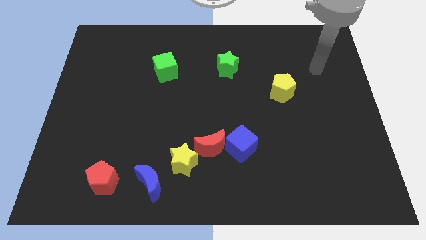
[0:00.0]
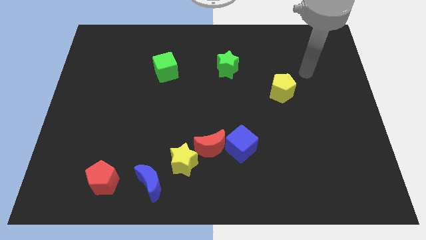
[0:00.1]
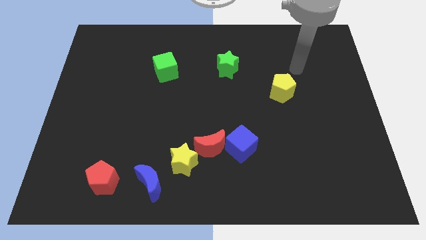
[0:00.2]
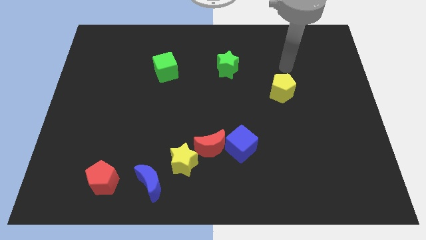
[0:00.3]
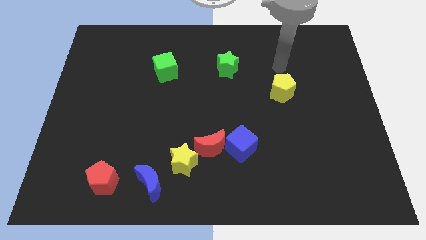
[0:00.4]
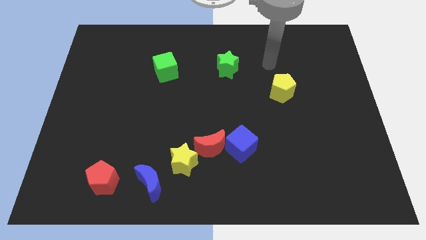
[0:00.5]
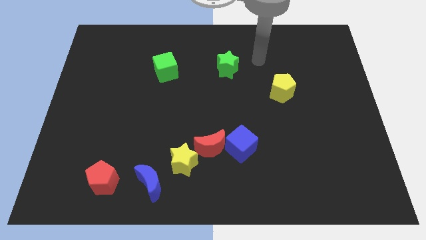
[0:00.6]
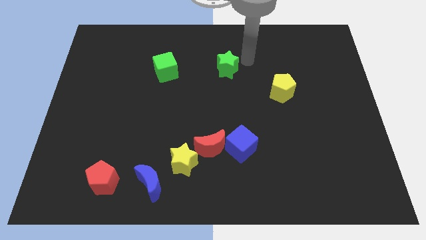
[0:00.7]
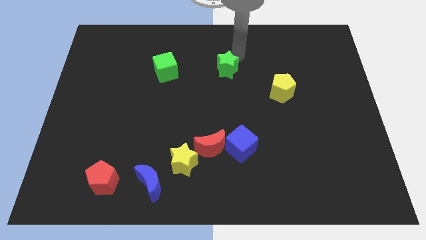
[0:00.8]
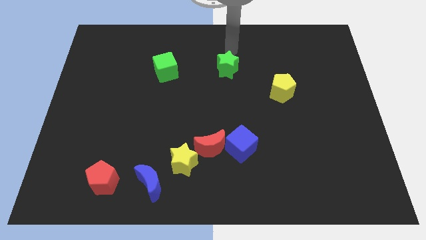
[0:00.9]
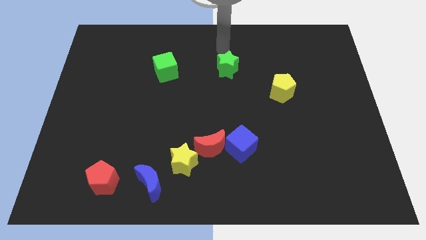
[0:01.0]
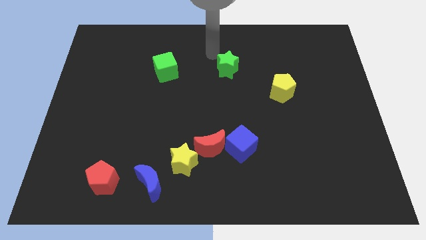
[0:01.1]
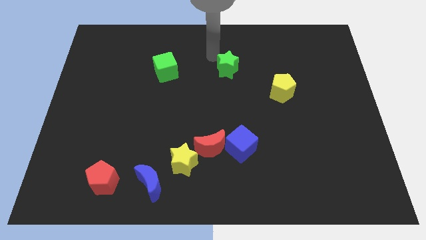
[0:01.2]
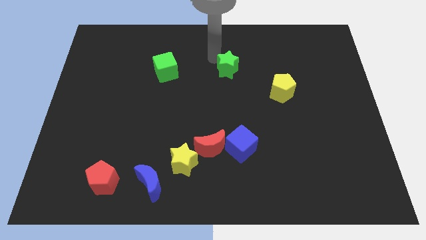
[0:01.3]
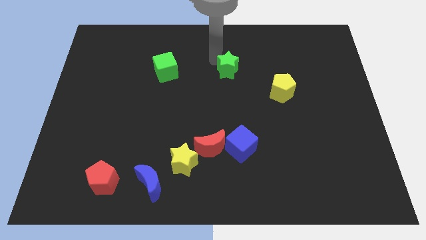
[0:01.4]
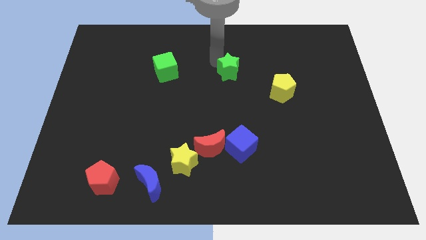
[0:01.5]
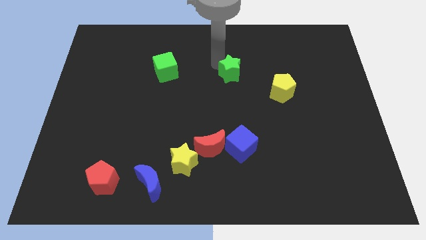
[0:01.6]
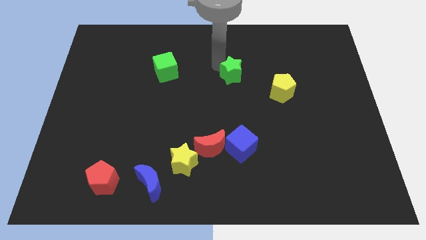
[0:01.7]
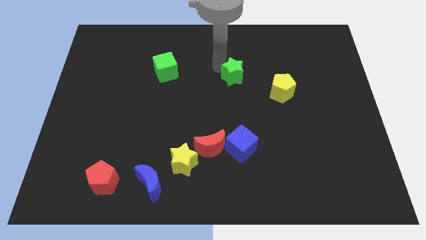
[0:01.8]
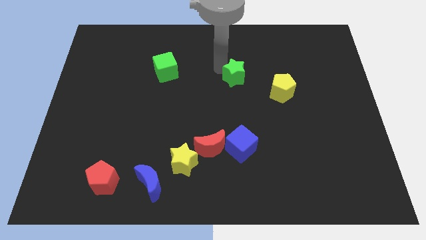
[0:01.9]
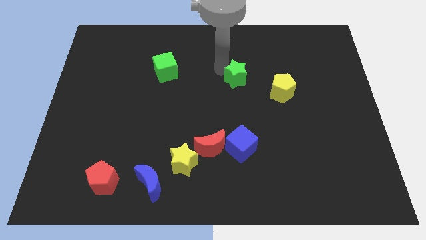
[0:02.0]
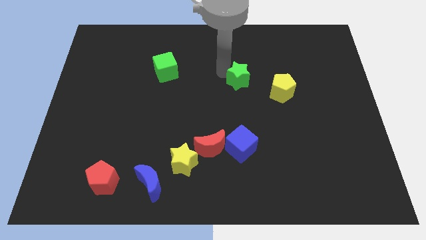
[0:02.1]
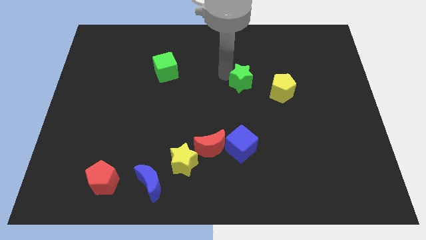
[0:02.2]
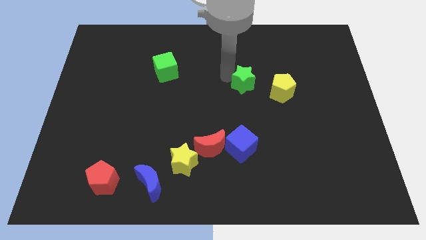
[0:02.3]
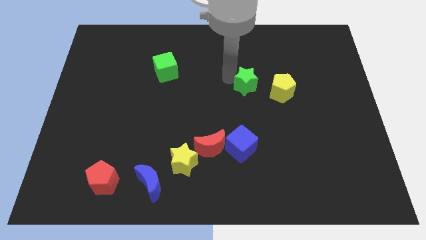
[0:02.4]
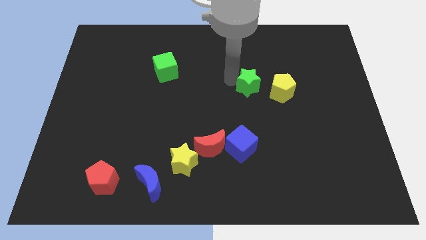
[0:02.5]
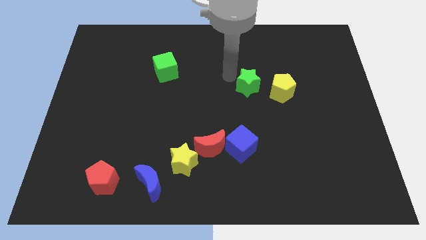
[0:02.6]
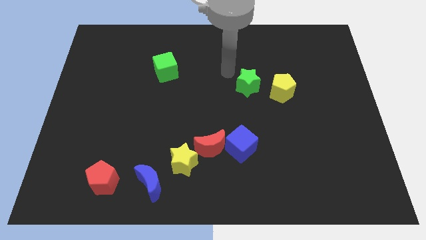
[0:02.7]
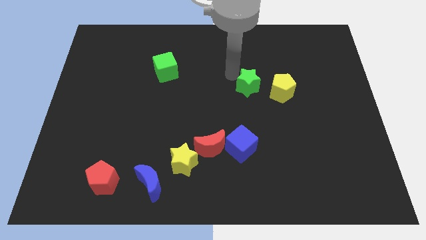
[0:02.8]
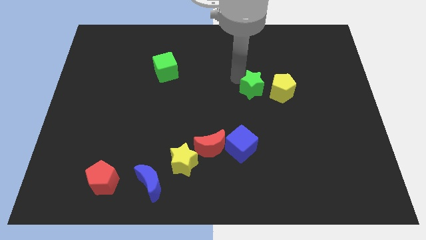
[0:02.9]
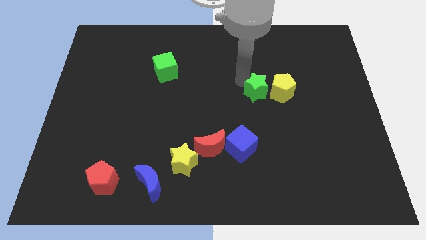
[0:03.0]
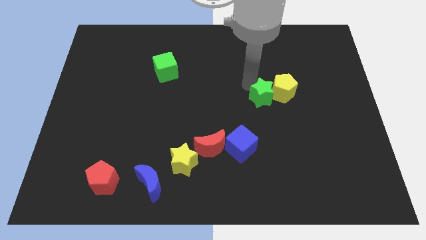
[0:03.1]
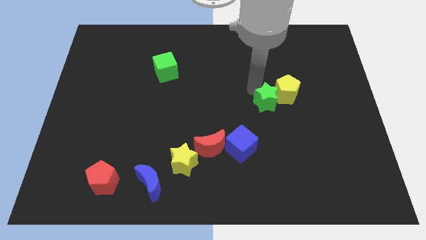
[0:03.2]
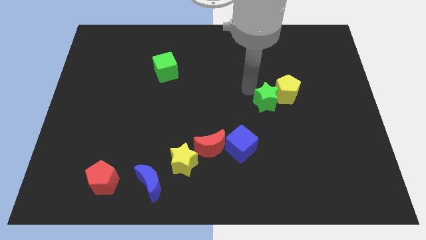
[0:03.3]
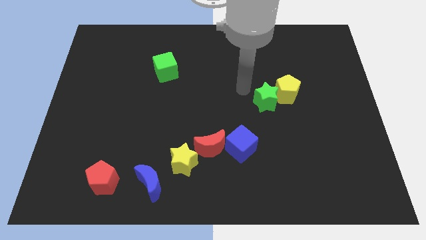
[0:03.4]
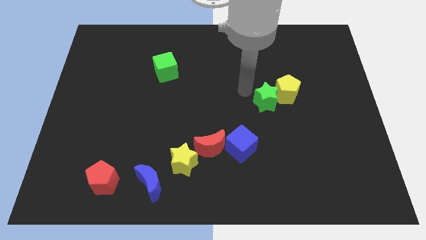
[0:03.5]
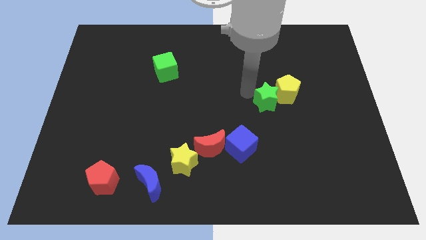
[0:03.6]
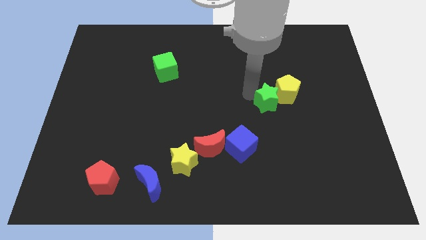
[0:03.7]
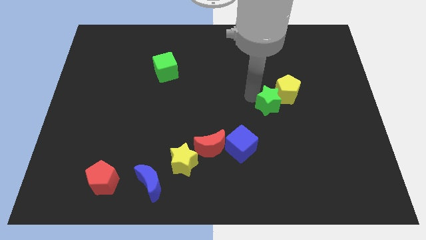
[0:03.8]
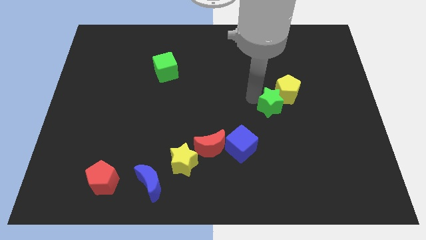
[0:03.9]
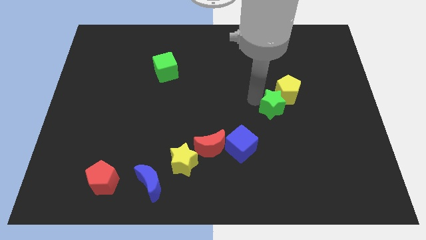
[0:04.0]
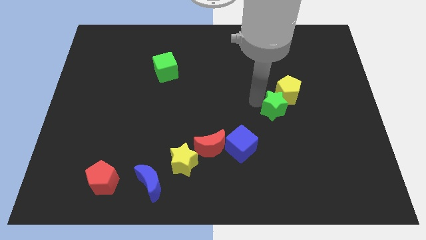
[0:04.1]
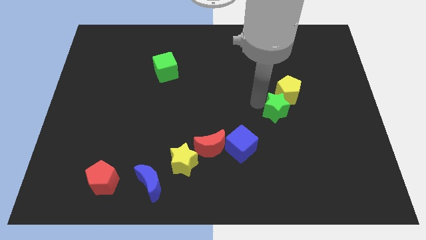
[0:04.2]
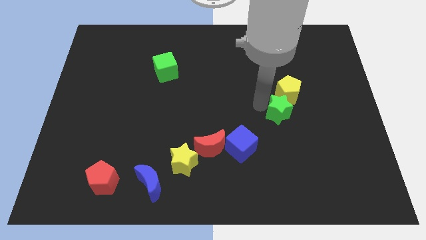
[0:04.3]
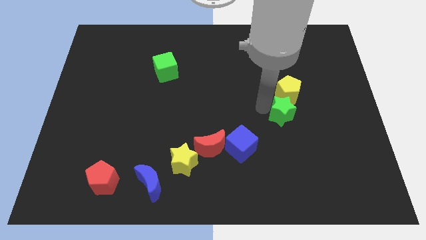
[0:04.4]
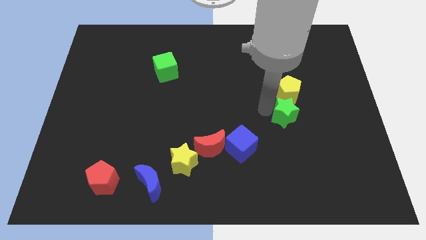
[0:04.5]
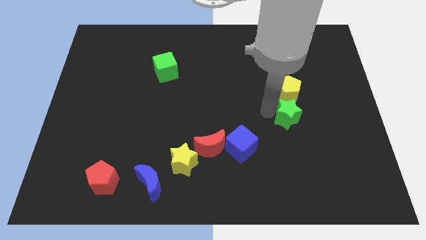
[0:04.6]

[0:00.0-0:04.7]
push the green star diagonally down and to the right

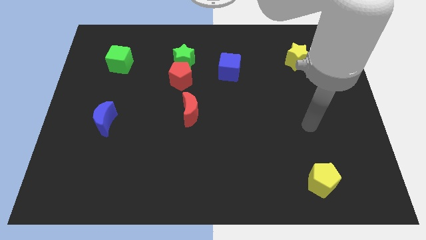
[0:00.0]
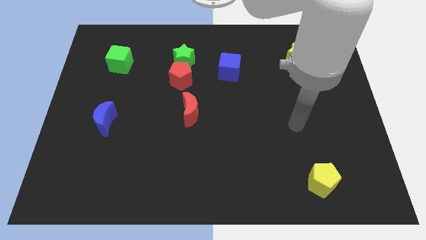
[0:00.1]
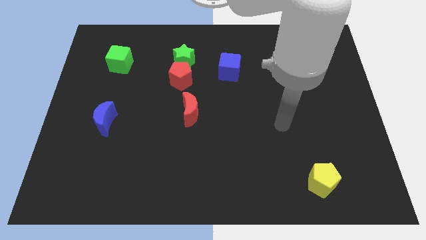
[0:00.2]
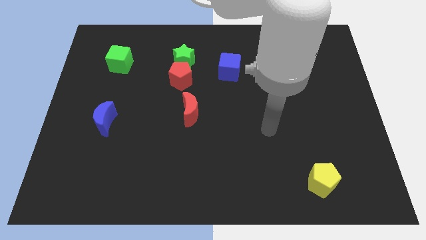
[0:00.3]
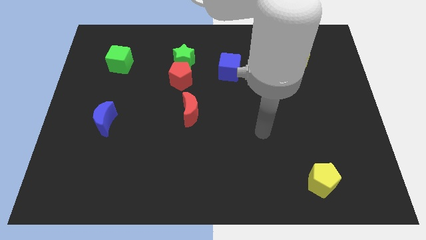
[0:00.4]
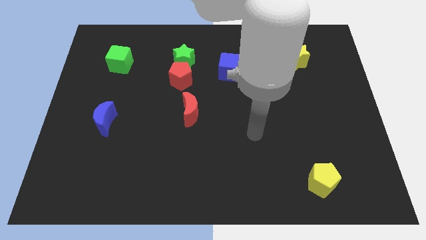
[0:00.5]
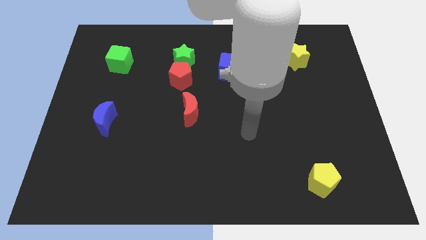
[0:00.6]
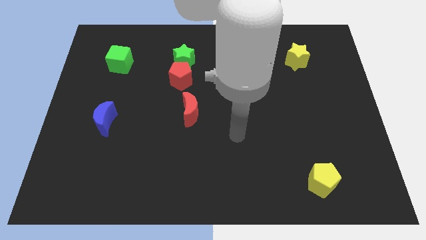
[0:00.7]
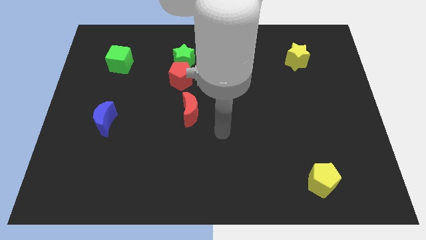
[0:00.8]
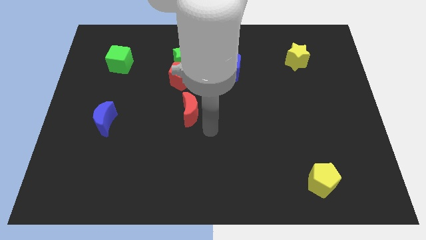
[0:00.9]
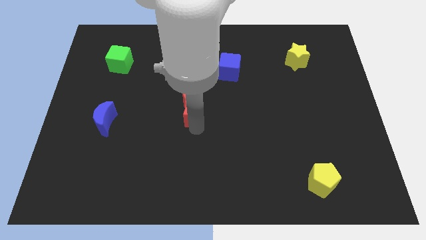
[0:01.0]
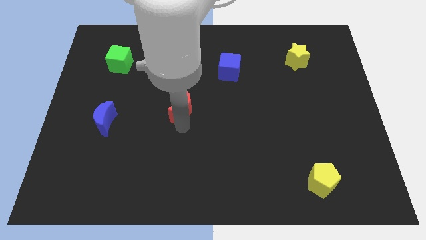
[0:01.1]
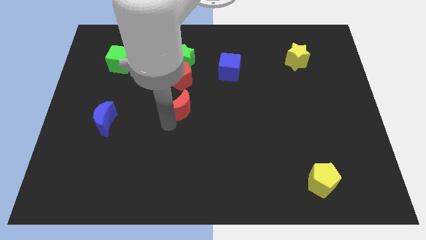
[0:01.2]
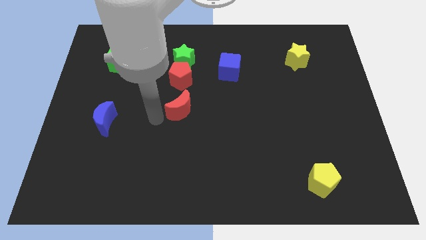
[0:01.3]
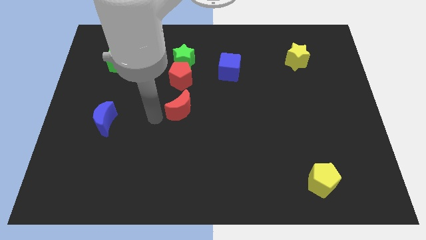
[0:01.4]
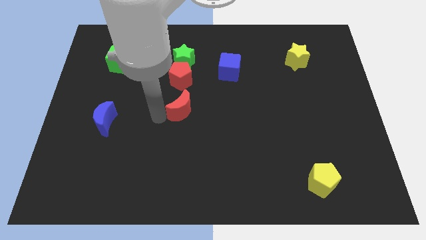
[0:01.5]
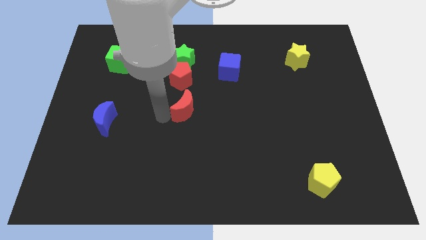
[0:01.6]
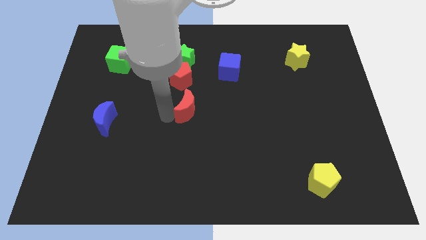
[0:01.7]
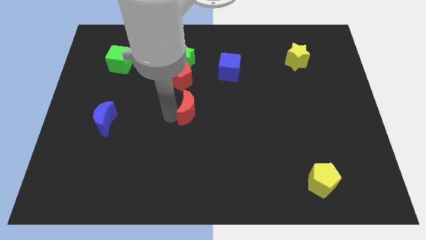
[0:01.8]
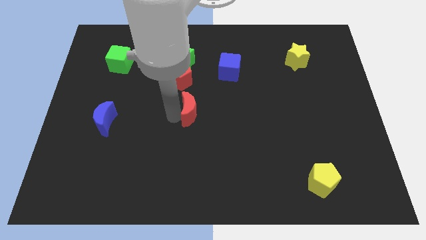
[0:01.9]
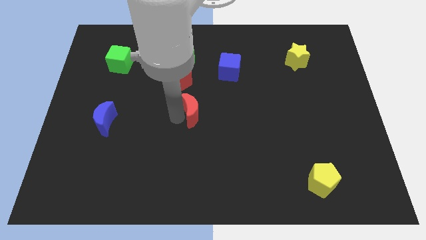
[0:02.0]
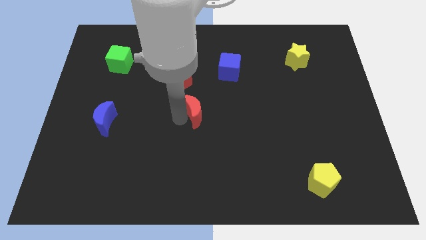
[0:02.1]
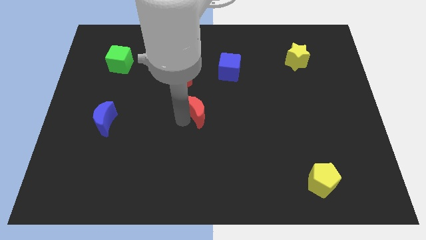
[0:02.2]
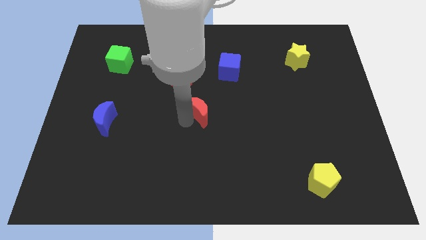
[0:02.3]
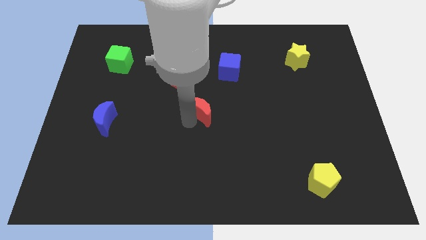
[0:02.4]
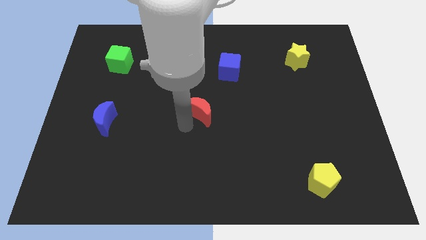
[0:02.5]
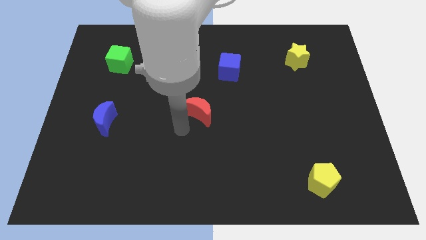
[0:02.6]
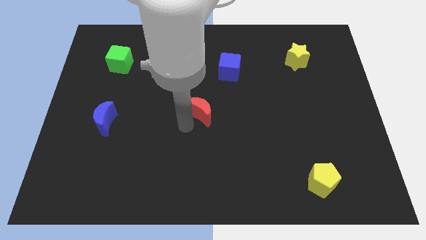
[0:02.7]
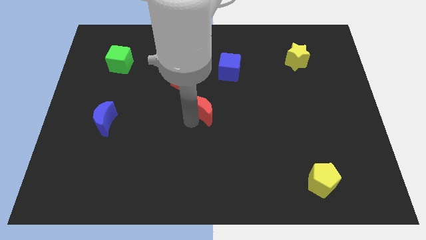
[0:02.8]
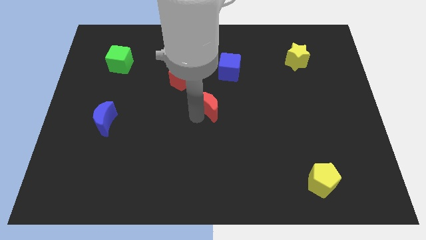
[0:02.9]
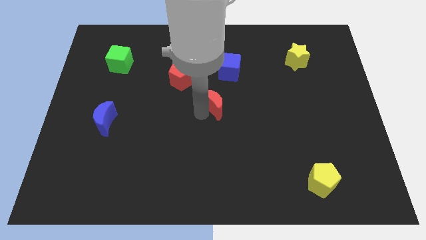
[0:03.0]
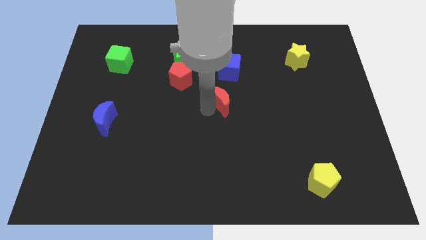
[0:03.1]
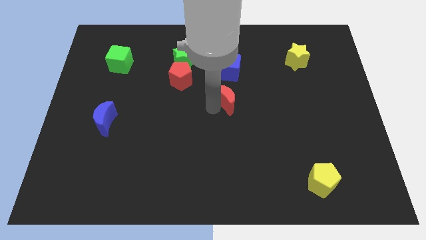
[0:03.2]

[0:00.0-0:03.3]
slide the red moon slightly upwards and then to the right
